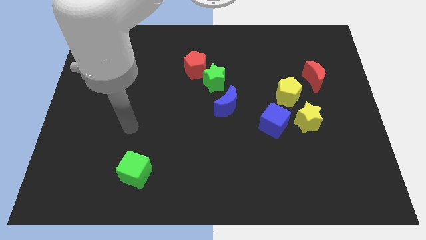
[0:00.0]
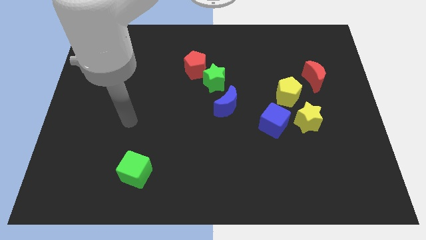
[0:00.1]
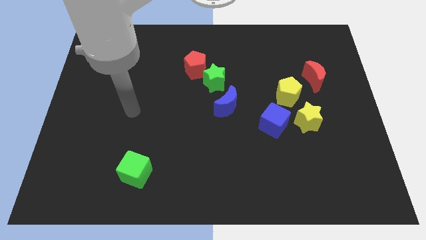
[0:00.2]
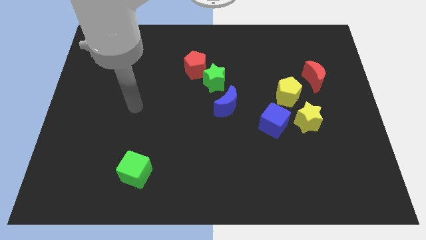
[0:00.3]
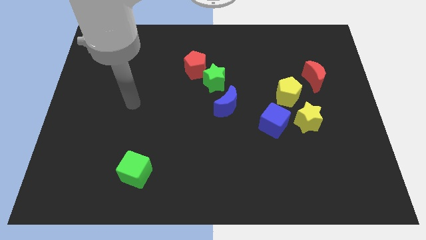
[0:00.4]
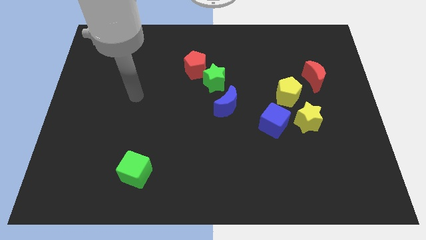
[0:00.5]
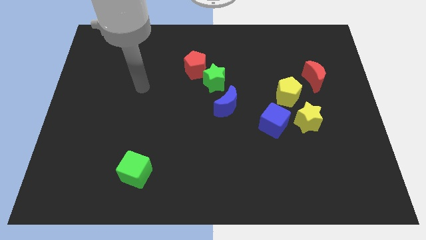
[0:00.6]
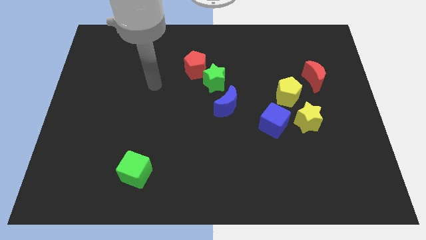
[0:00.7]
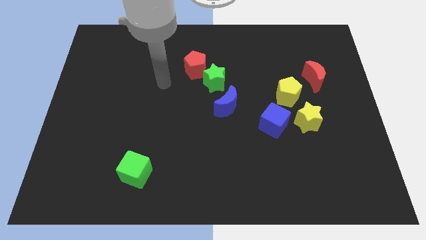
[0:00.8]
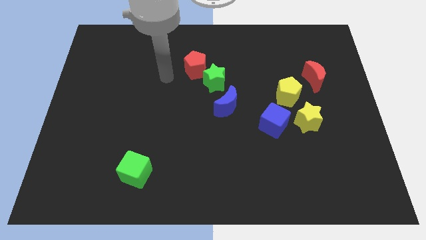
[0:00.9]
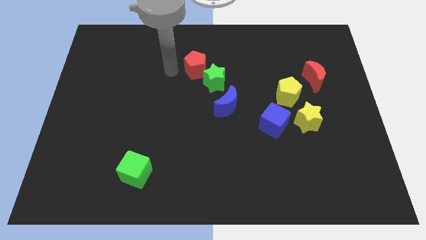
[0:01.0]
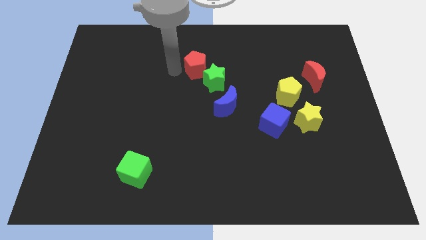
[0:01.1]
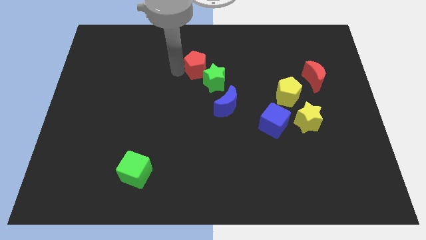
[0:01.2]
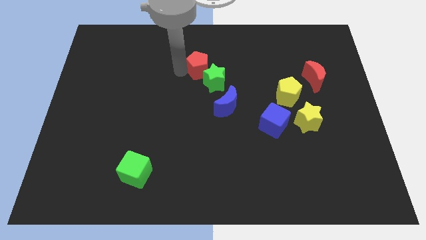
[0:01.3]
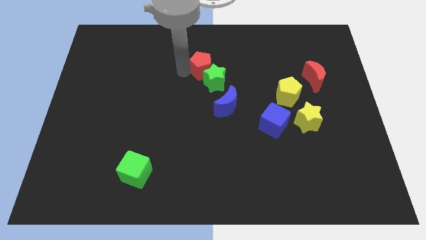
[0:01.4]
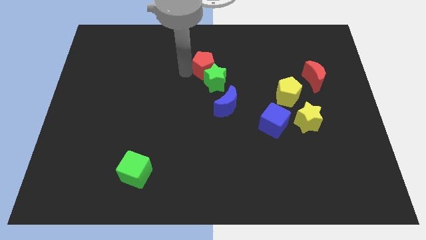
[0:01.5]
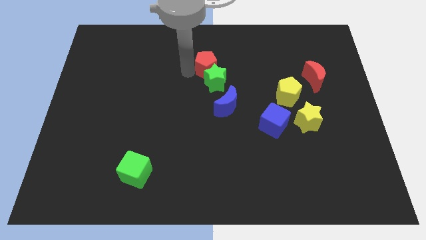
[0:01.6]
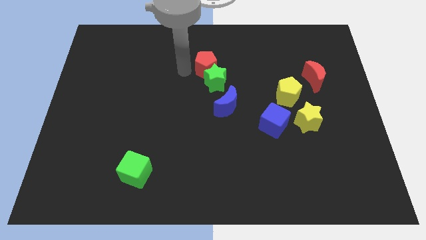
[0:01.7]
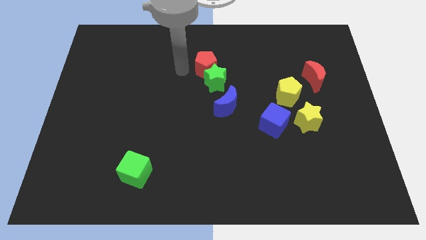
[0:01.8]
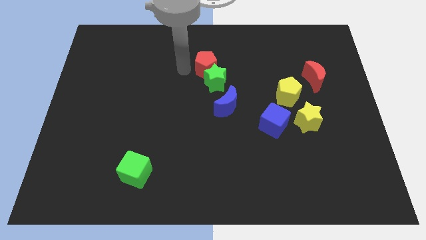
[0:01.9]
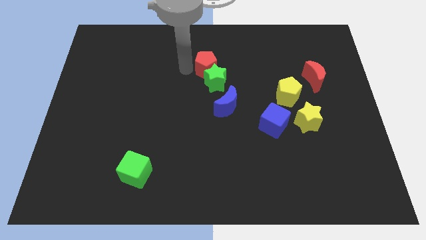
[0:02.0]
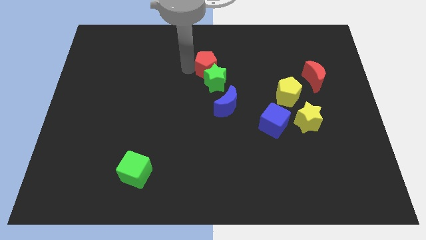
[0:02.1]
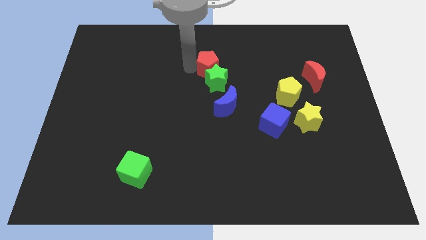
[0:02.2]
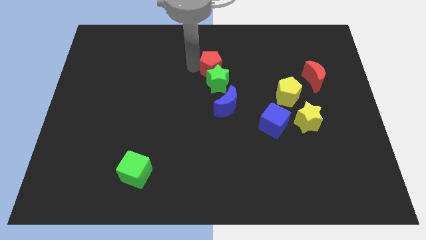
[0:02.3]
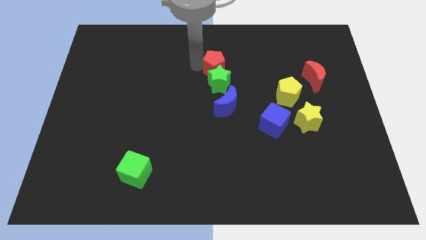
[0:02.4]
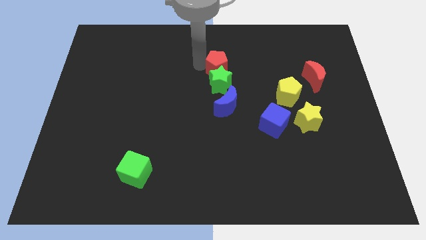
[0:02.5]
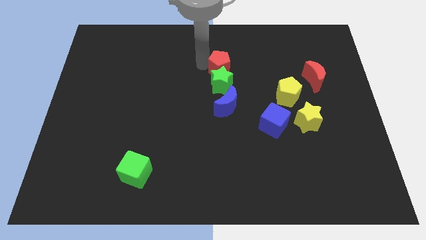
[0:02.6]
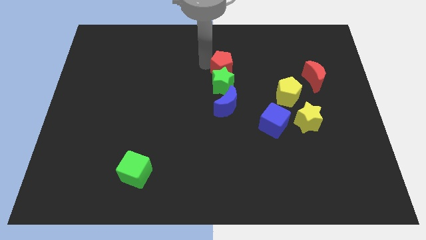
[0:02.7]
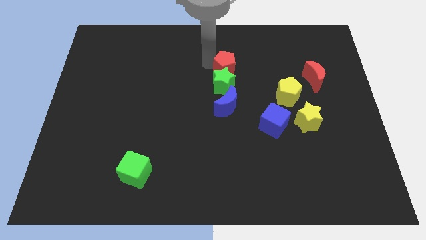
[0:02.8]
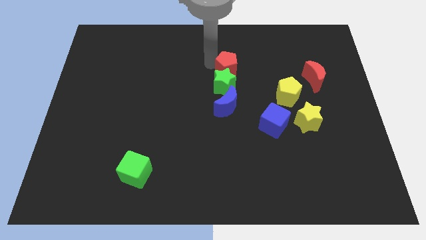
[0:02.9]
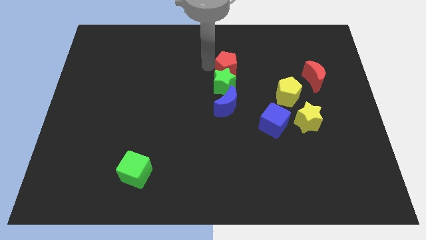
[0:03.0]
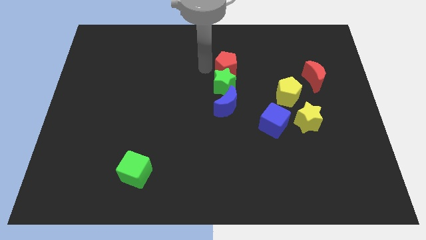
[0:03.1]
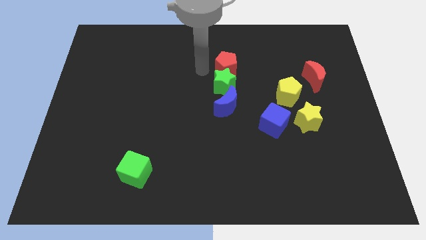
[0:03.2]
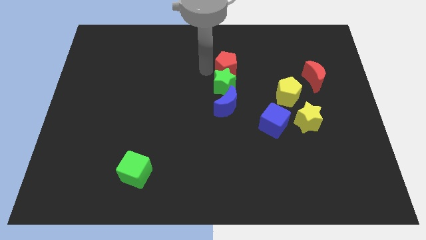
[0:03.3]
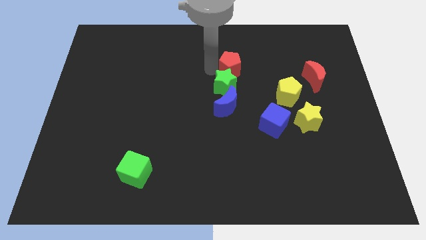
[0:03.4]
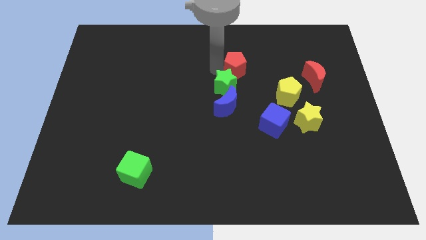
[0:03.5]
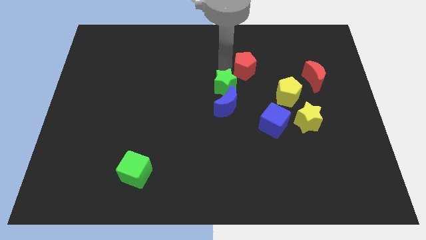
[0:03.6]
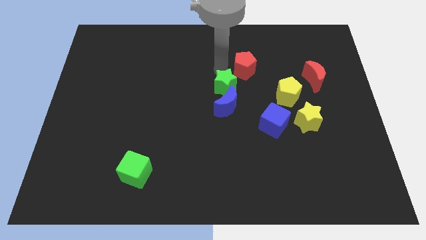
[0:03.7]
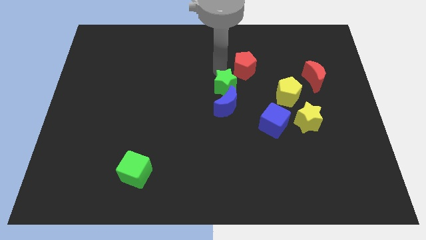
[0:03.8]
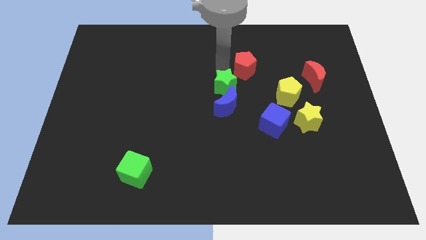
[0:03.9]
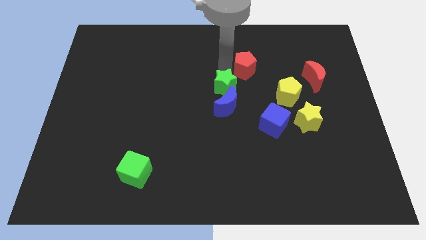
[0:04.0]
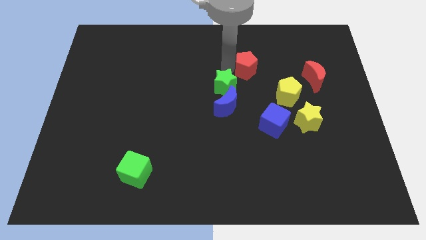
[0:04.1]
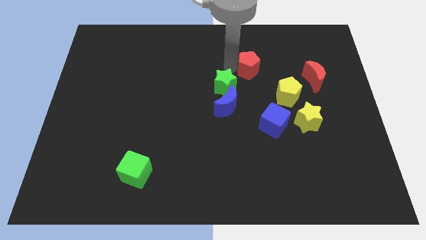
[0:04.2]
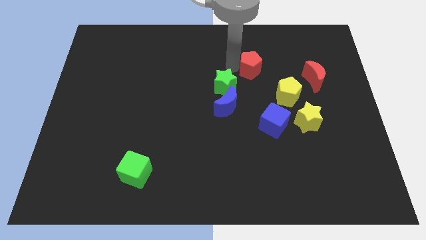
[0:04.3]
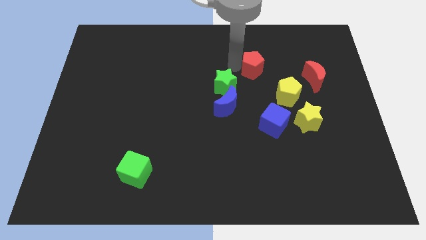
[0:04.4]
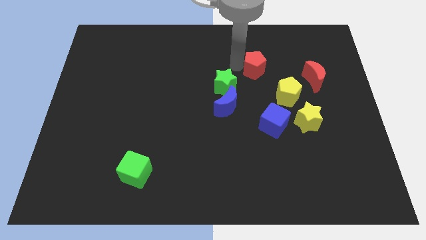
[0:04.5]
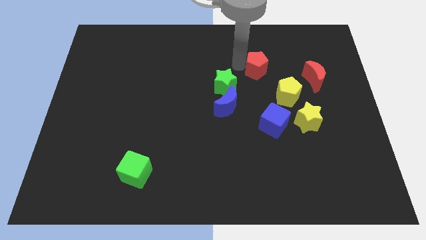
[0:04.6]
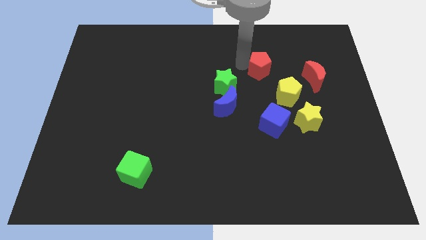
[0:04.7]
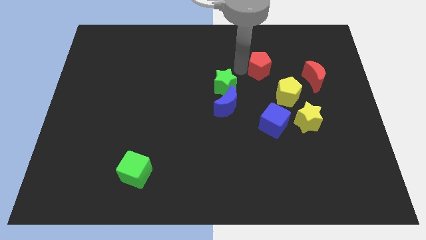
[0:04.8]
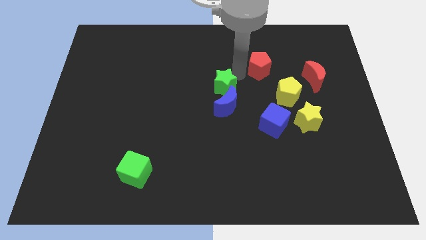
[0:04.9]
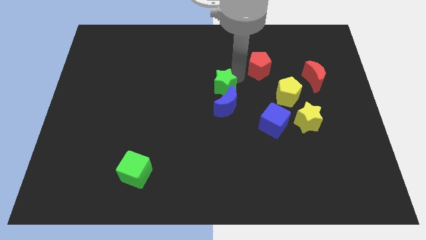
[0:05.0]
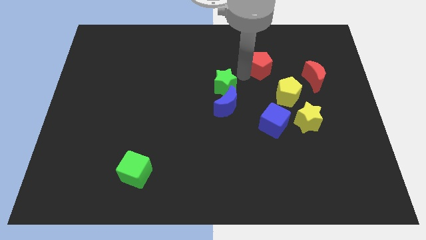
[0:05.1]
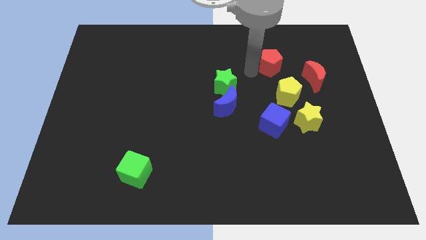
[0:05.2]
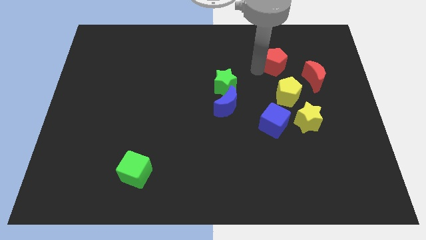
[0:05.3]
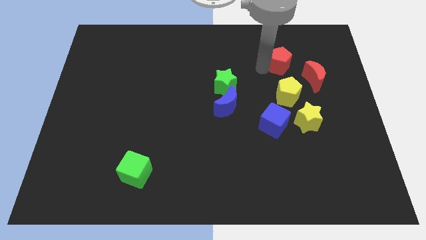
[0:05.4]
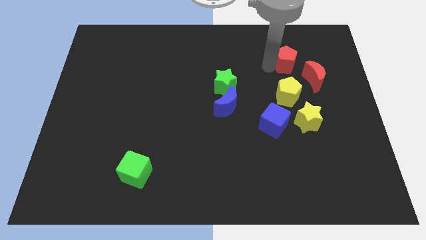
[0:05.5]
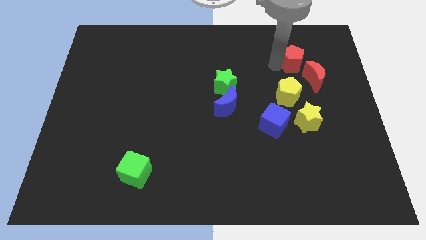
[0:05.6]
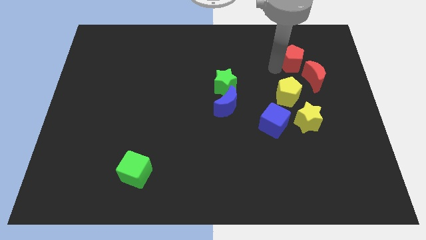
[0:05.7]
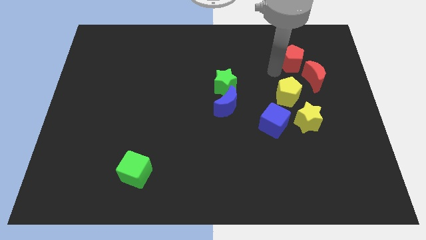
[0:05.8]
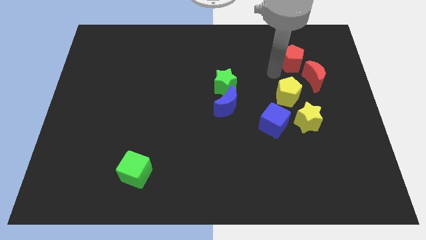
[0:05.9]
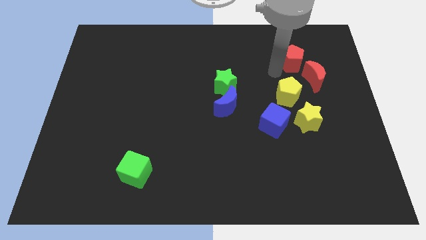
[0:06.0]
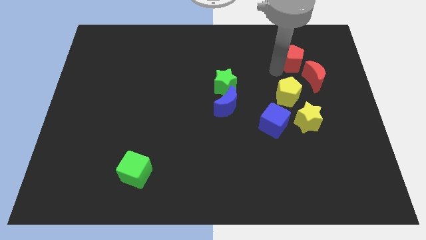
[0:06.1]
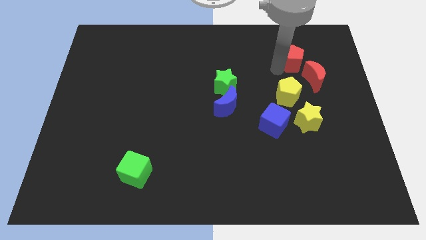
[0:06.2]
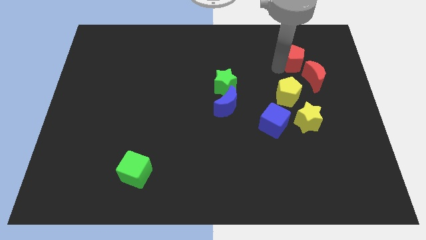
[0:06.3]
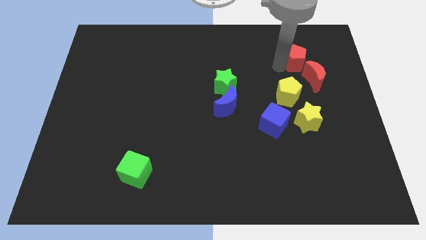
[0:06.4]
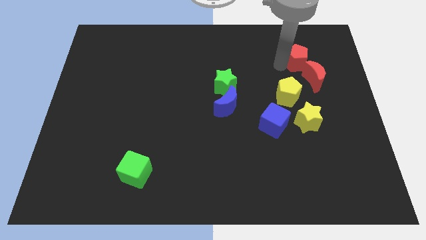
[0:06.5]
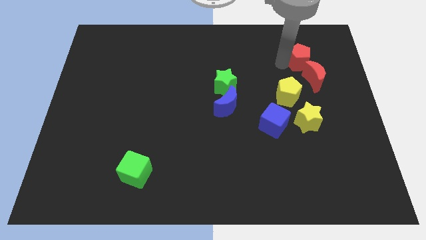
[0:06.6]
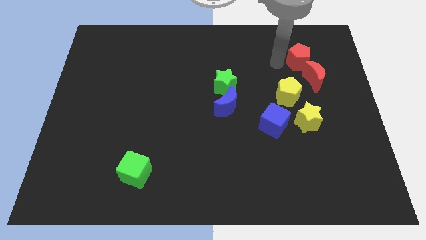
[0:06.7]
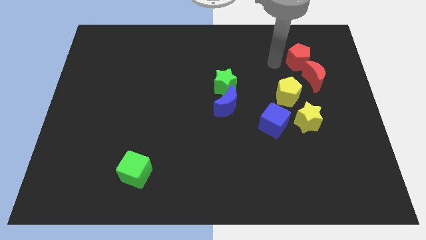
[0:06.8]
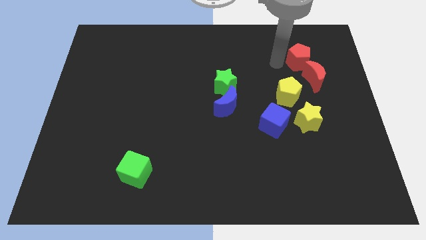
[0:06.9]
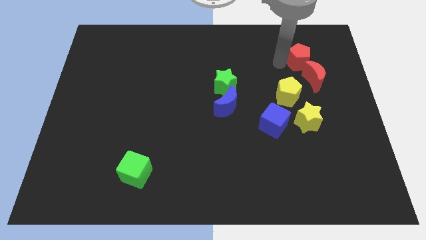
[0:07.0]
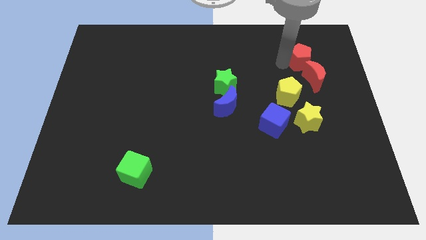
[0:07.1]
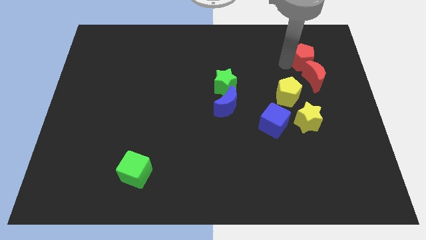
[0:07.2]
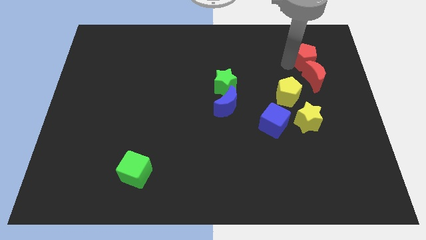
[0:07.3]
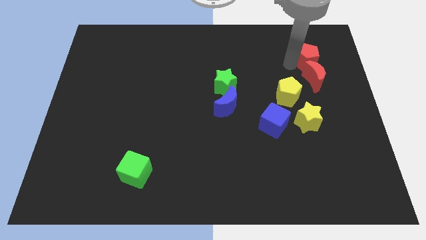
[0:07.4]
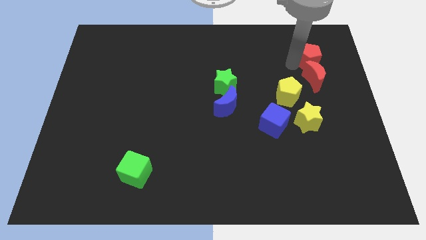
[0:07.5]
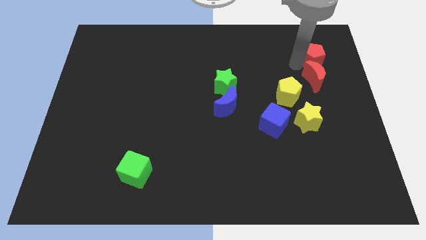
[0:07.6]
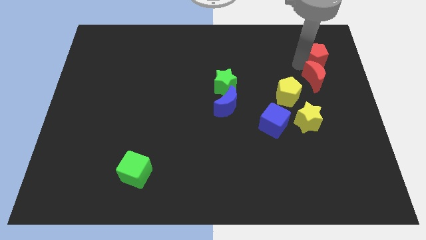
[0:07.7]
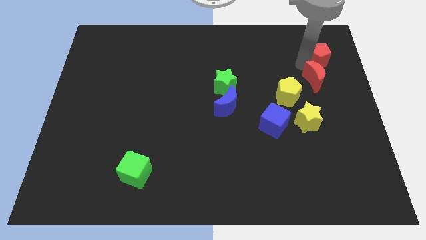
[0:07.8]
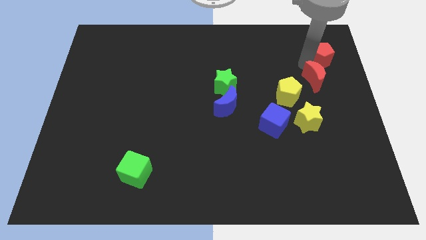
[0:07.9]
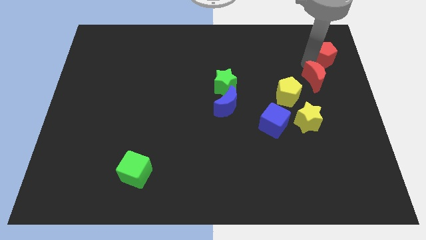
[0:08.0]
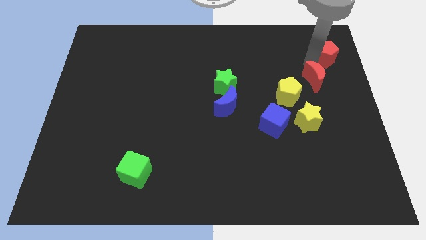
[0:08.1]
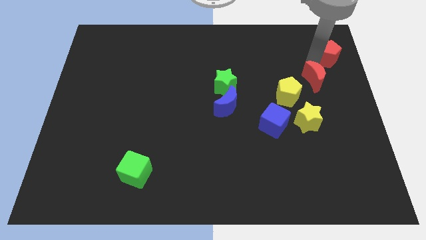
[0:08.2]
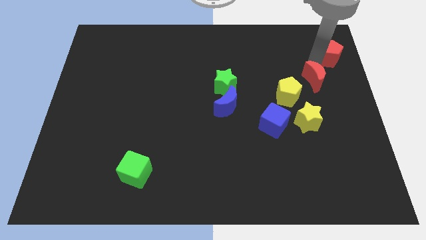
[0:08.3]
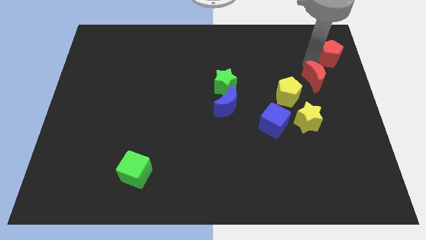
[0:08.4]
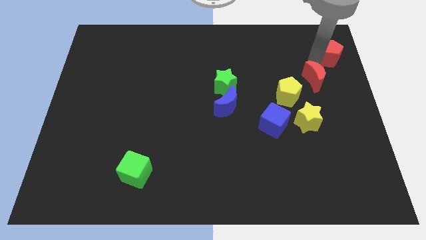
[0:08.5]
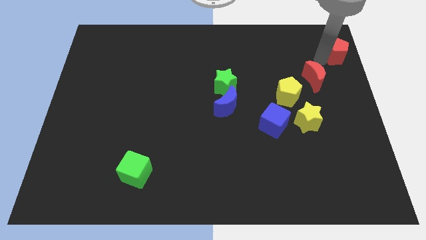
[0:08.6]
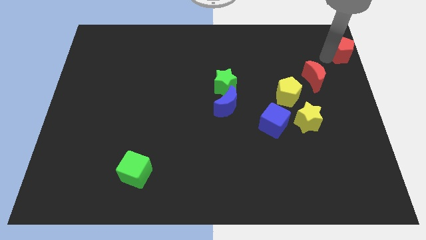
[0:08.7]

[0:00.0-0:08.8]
put the red pentagon to the top right
